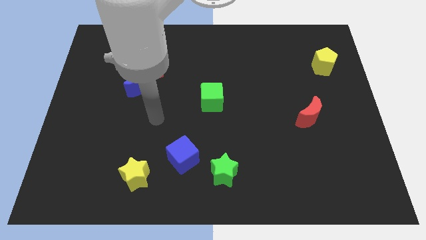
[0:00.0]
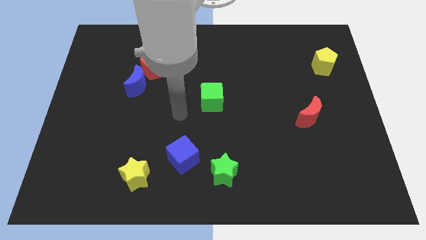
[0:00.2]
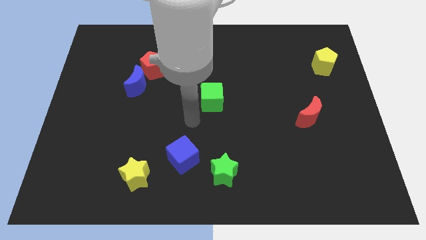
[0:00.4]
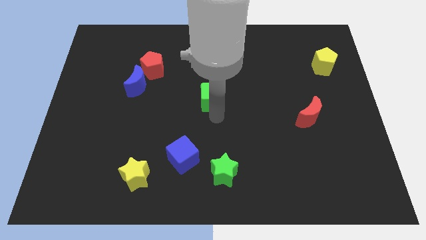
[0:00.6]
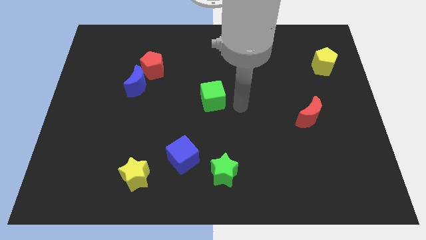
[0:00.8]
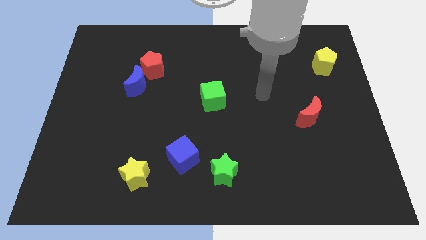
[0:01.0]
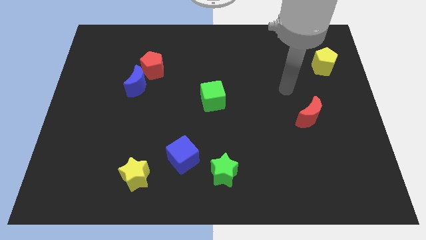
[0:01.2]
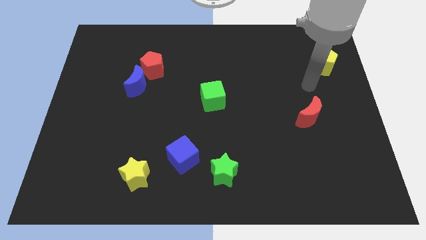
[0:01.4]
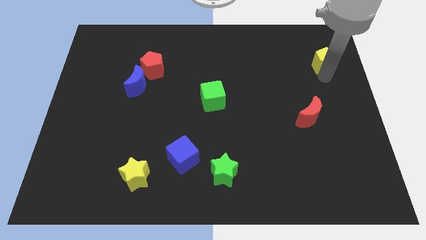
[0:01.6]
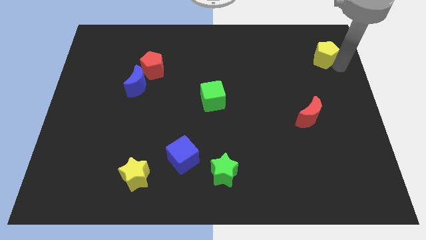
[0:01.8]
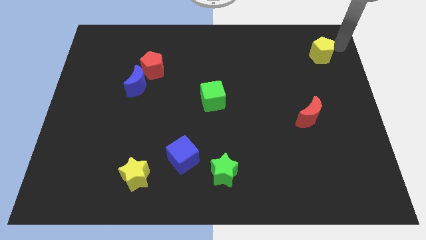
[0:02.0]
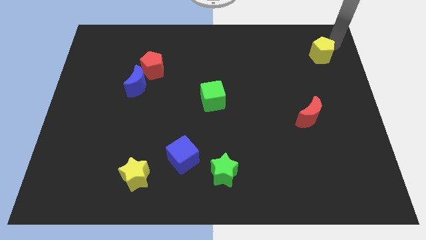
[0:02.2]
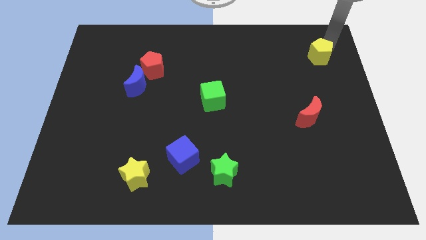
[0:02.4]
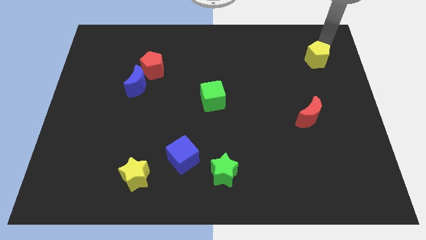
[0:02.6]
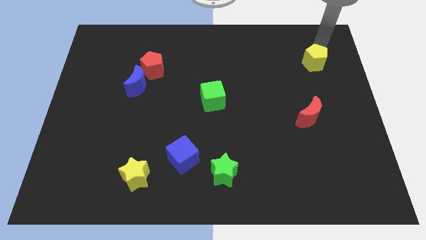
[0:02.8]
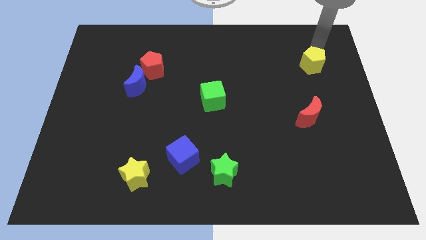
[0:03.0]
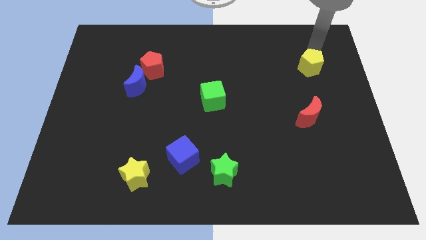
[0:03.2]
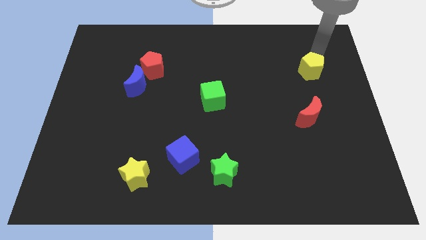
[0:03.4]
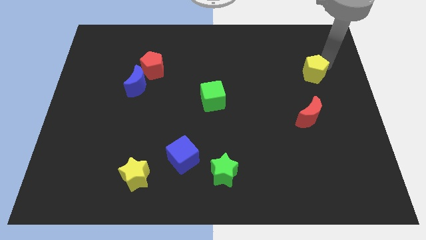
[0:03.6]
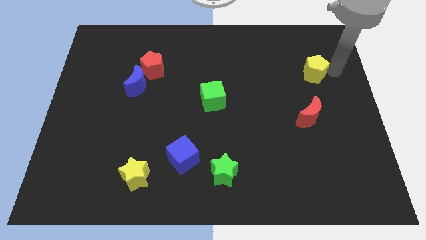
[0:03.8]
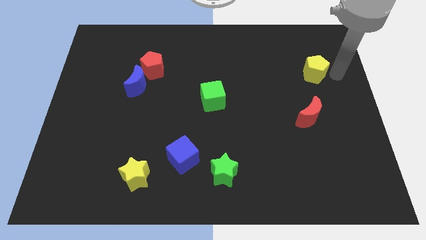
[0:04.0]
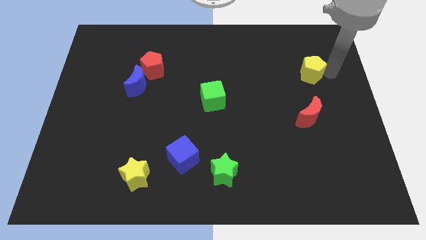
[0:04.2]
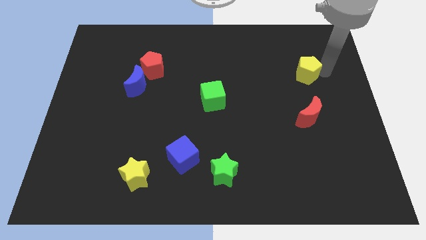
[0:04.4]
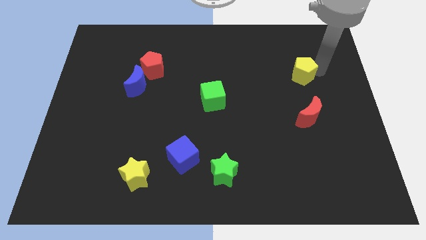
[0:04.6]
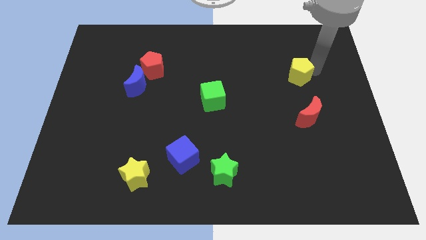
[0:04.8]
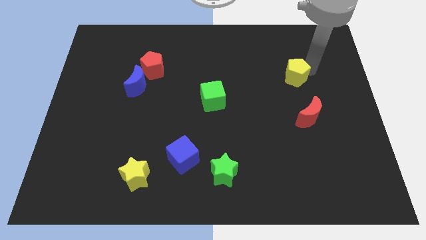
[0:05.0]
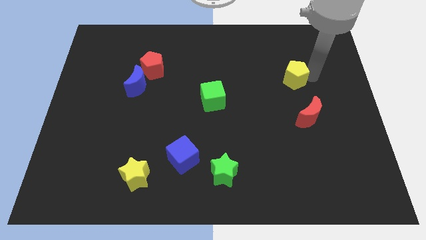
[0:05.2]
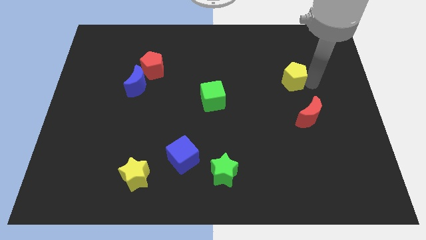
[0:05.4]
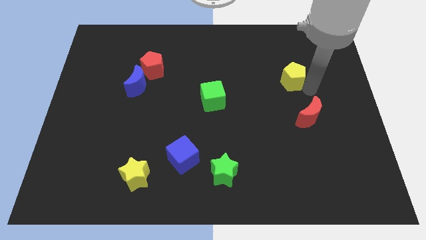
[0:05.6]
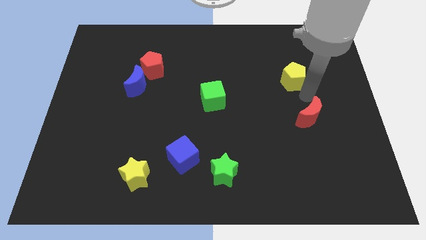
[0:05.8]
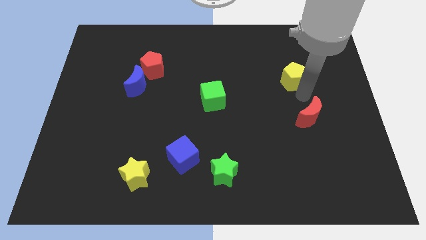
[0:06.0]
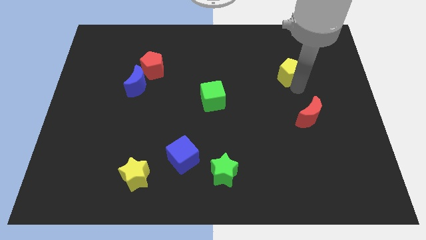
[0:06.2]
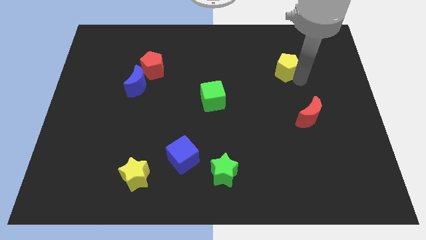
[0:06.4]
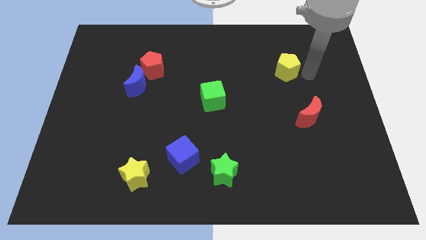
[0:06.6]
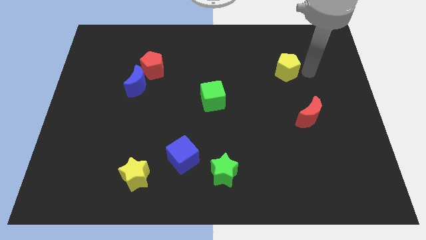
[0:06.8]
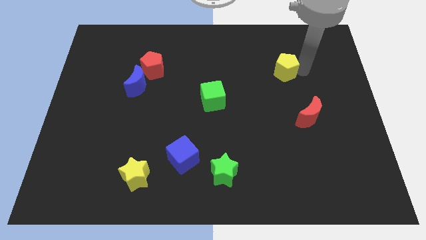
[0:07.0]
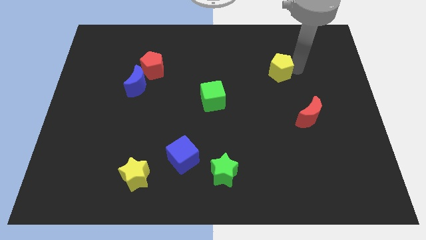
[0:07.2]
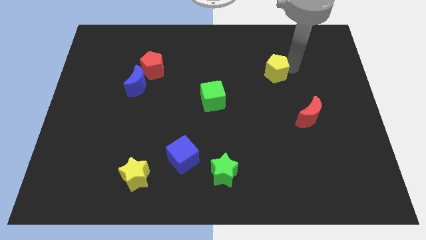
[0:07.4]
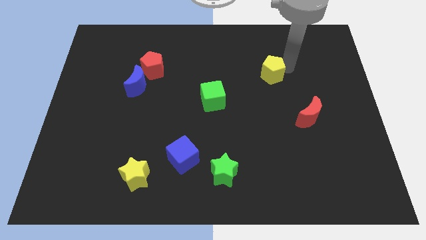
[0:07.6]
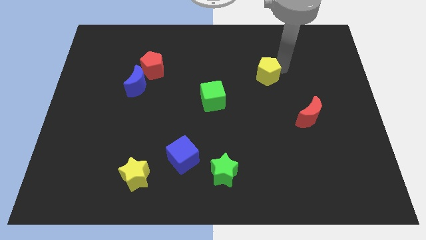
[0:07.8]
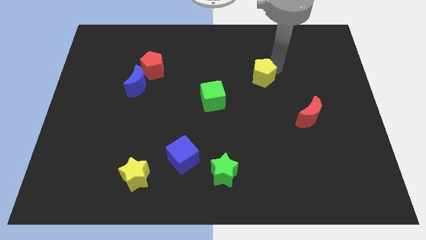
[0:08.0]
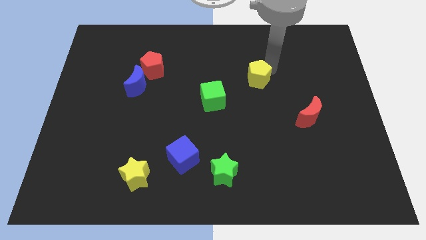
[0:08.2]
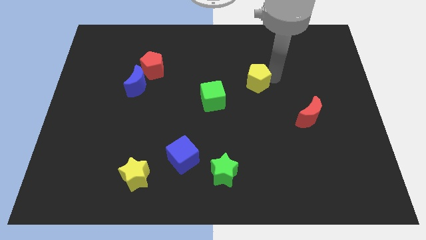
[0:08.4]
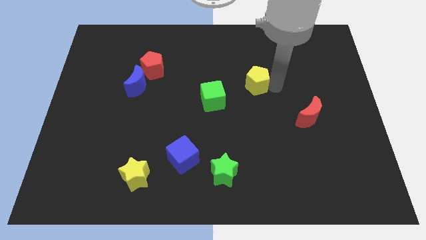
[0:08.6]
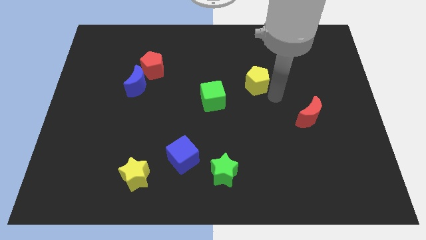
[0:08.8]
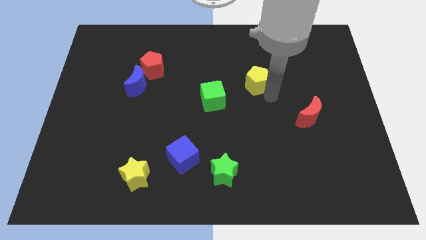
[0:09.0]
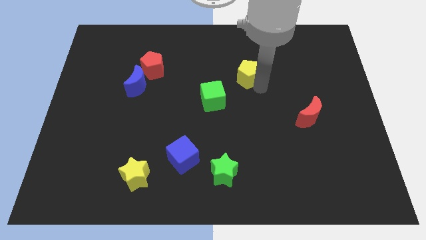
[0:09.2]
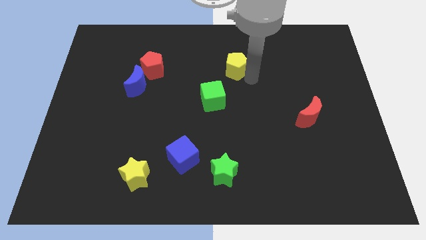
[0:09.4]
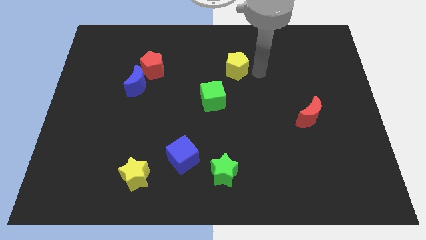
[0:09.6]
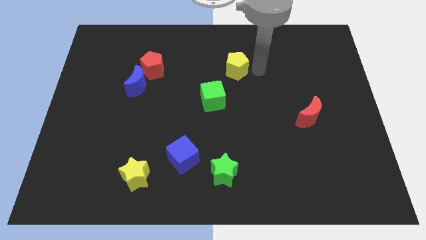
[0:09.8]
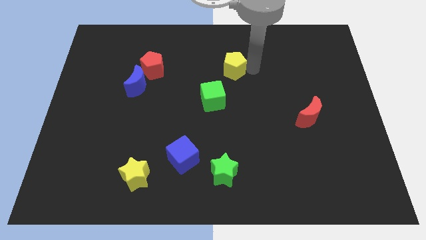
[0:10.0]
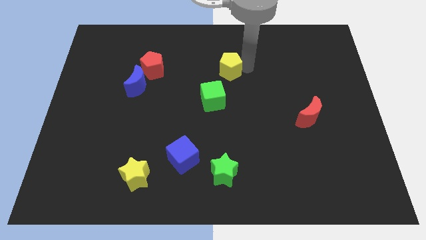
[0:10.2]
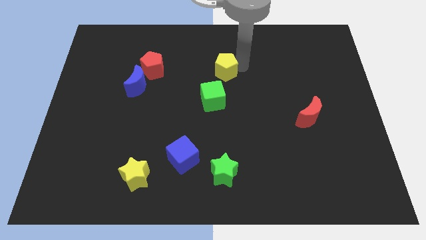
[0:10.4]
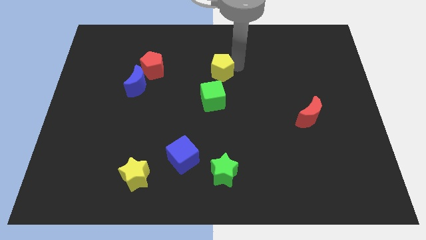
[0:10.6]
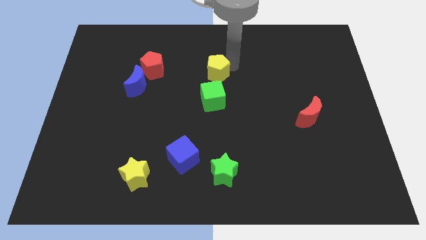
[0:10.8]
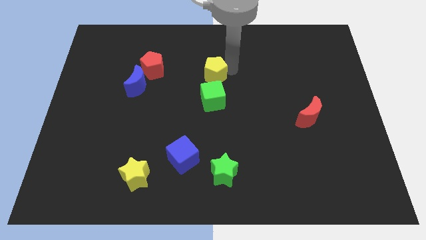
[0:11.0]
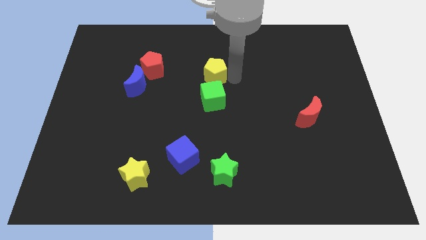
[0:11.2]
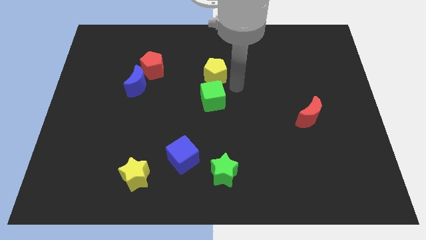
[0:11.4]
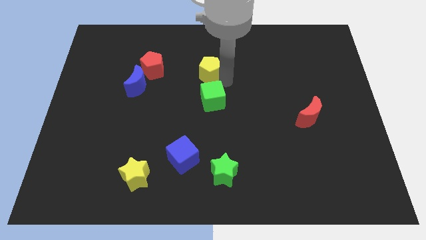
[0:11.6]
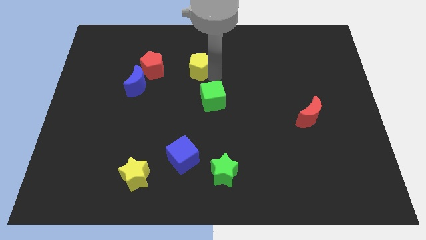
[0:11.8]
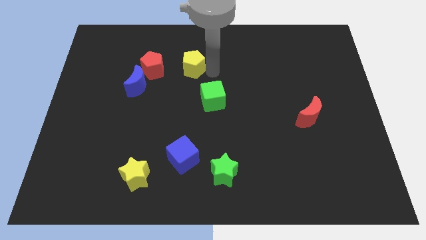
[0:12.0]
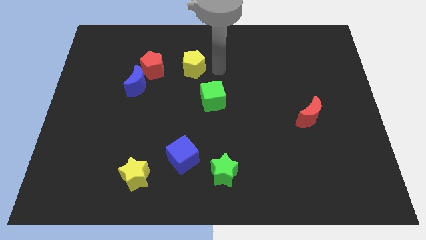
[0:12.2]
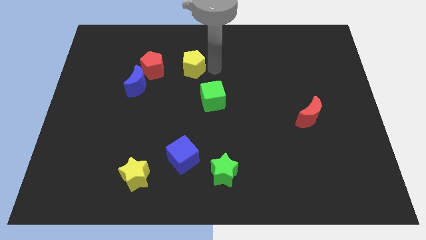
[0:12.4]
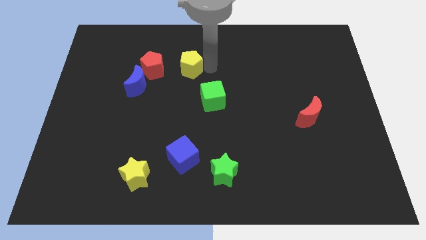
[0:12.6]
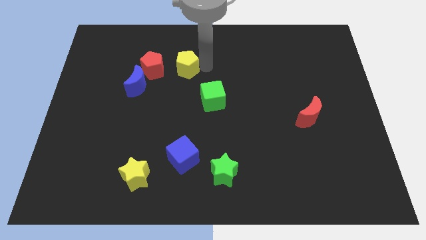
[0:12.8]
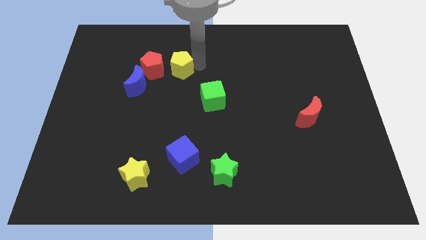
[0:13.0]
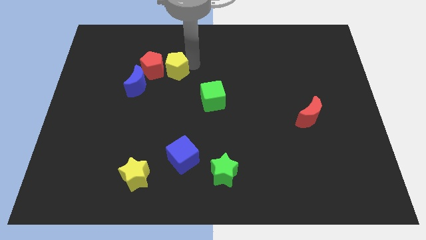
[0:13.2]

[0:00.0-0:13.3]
push the yellow pentagon to the red pentagon
